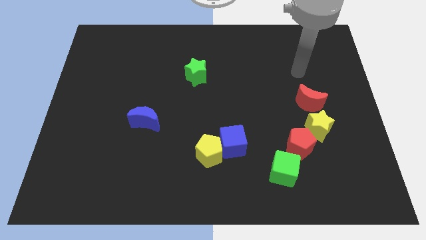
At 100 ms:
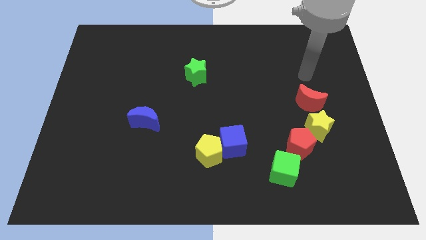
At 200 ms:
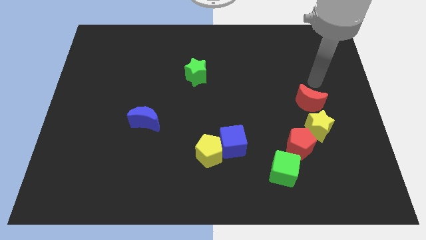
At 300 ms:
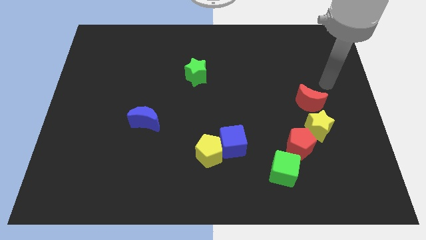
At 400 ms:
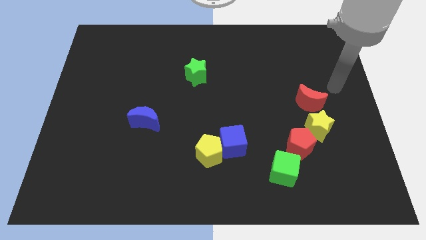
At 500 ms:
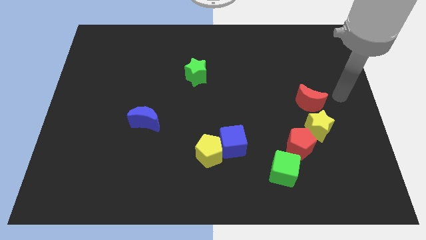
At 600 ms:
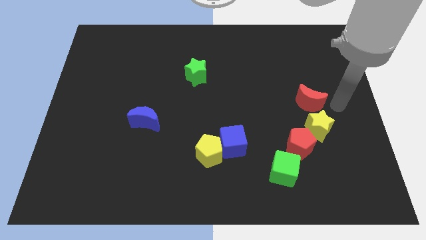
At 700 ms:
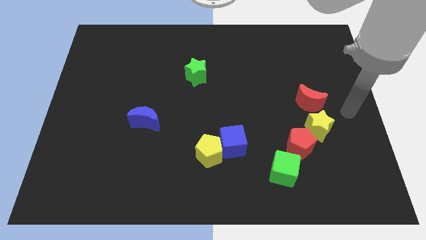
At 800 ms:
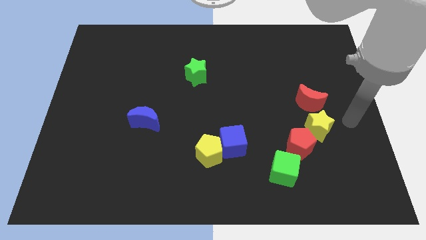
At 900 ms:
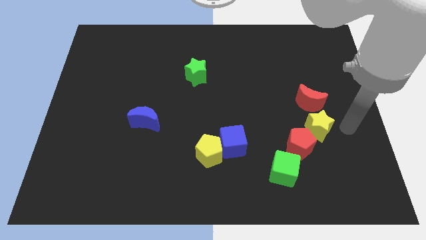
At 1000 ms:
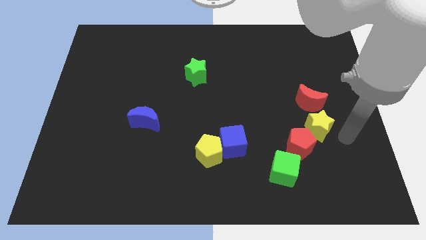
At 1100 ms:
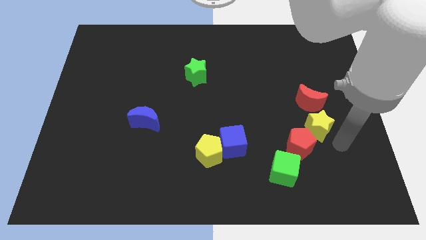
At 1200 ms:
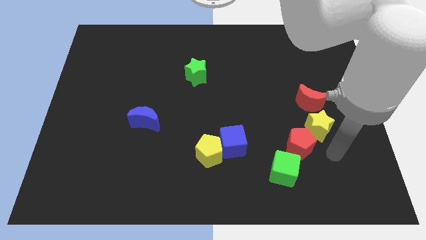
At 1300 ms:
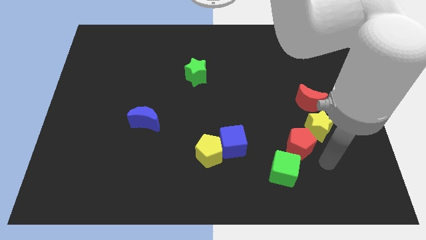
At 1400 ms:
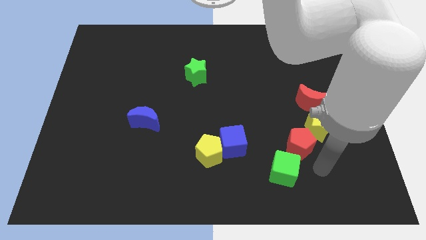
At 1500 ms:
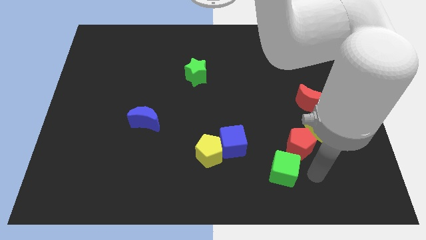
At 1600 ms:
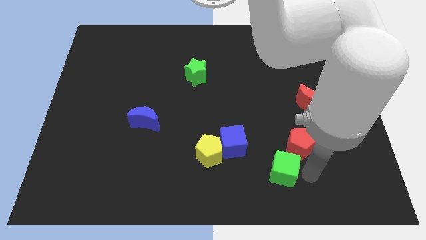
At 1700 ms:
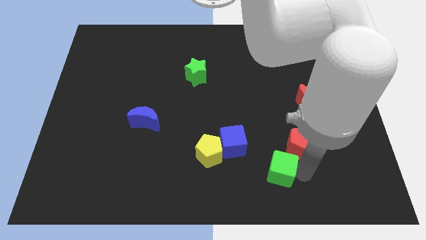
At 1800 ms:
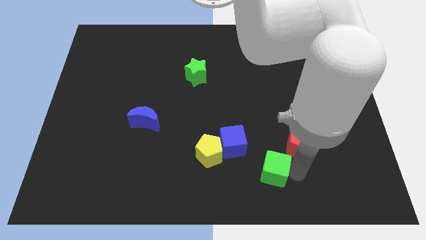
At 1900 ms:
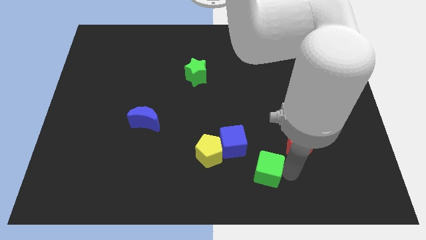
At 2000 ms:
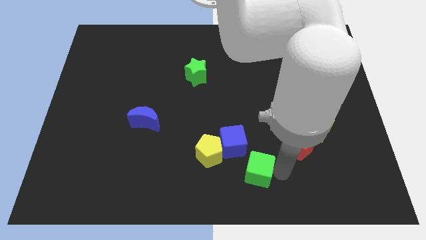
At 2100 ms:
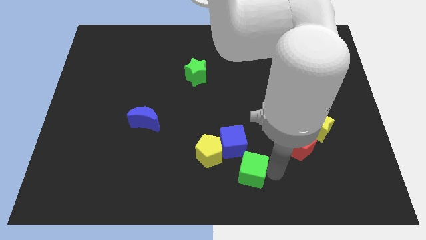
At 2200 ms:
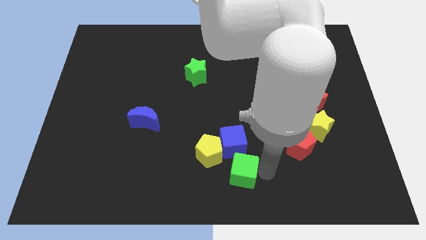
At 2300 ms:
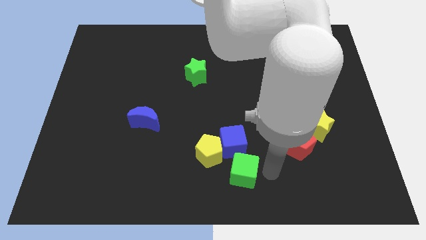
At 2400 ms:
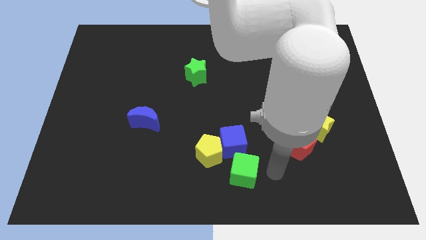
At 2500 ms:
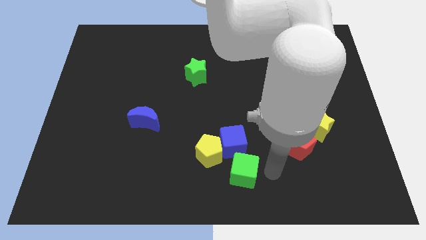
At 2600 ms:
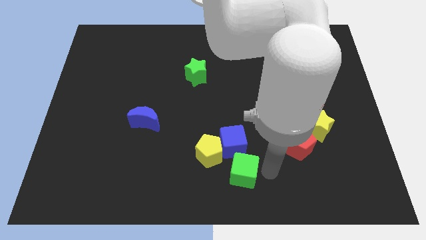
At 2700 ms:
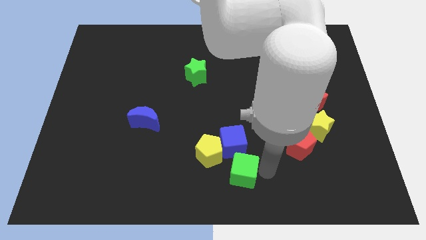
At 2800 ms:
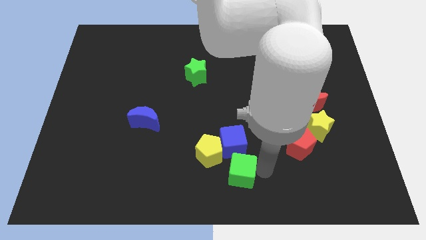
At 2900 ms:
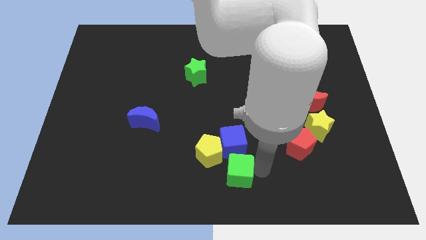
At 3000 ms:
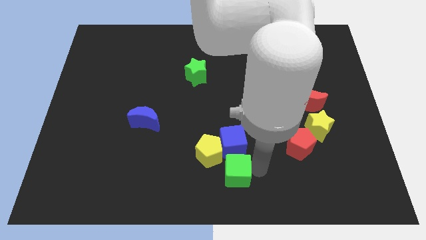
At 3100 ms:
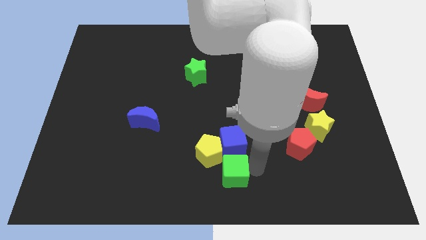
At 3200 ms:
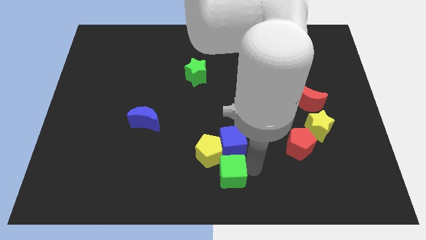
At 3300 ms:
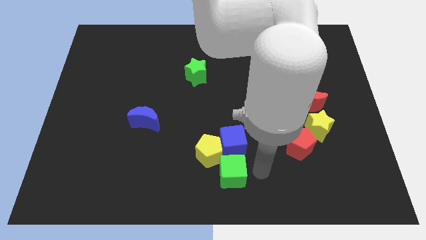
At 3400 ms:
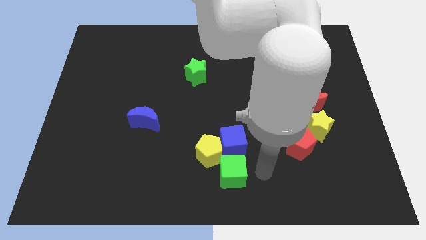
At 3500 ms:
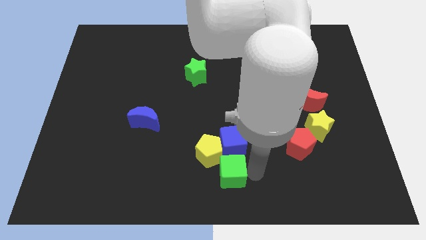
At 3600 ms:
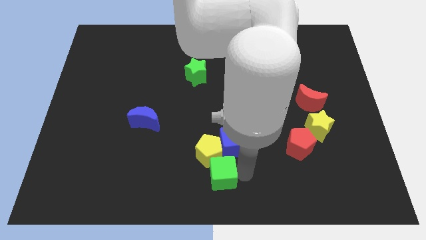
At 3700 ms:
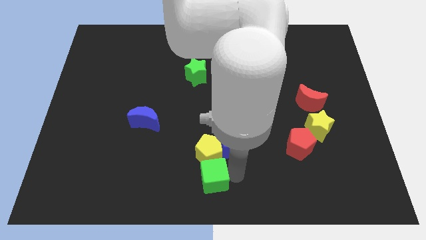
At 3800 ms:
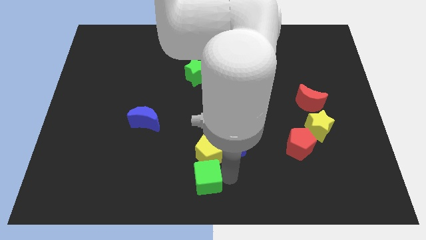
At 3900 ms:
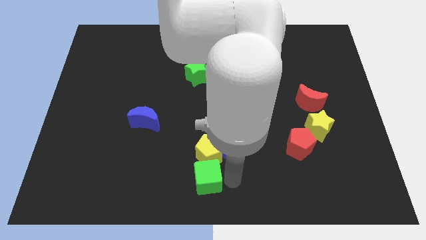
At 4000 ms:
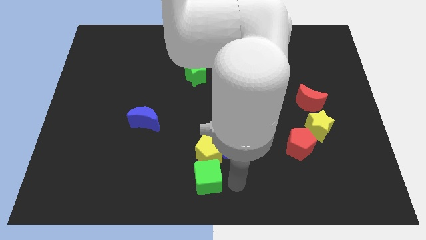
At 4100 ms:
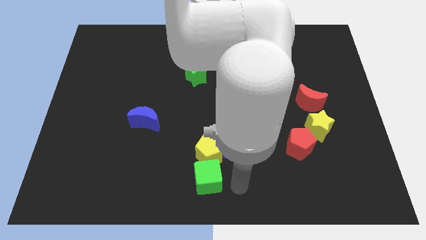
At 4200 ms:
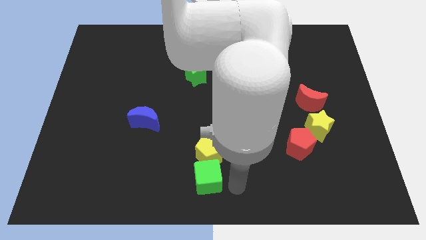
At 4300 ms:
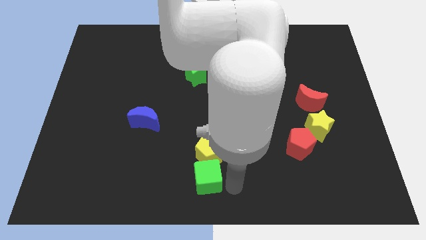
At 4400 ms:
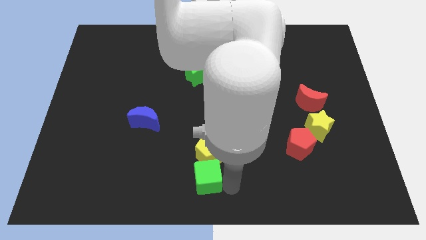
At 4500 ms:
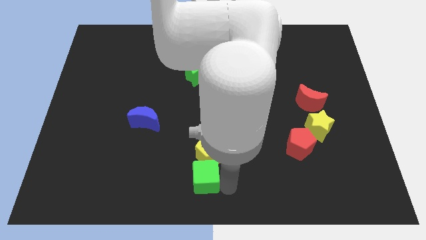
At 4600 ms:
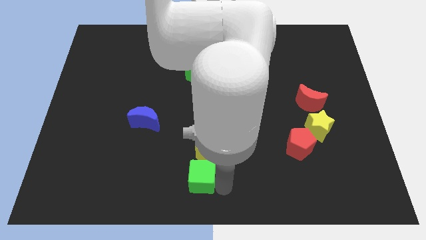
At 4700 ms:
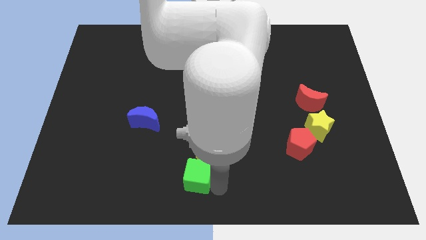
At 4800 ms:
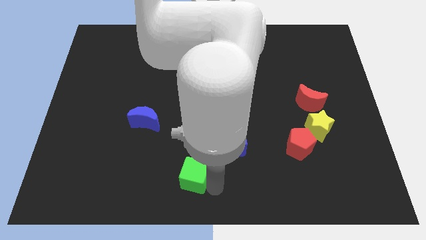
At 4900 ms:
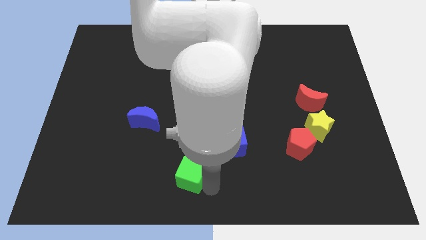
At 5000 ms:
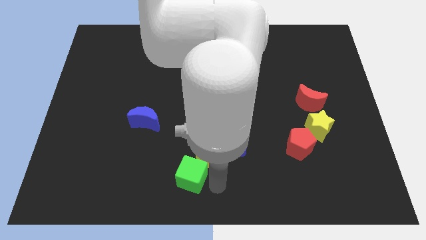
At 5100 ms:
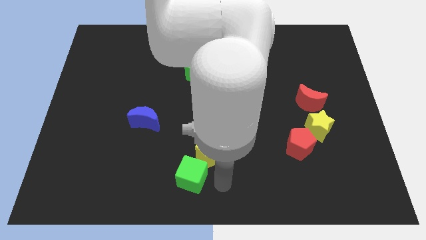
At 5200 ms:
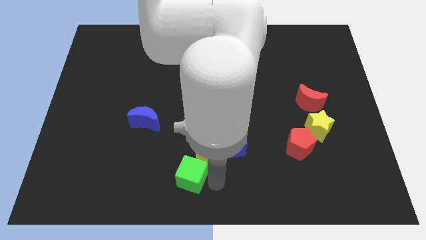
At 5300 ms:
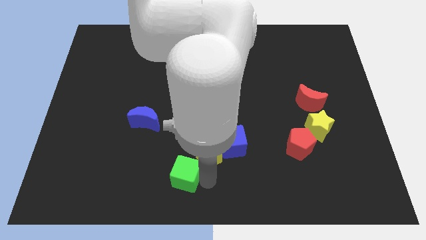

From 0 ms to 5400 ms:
slide the green cube left

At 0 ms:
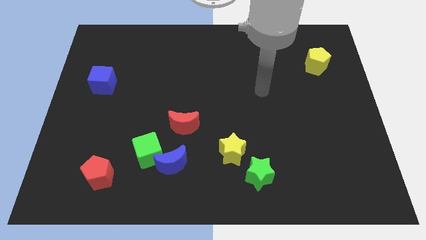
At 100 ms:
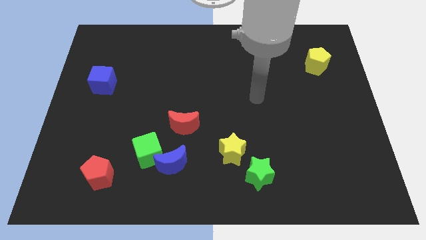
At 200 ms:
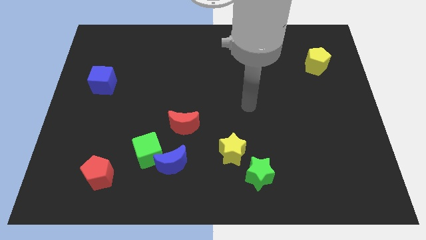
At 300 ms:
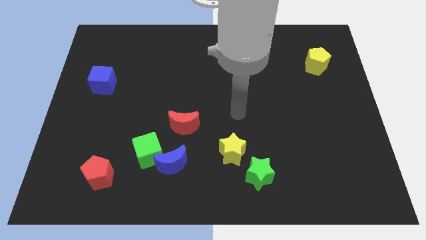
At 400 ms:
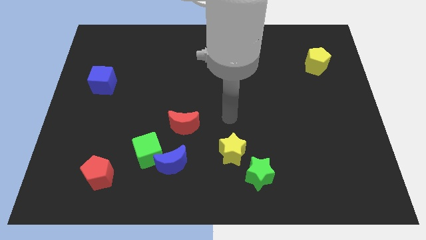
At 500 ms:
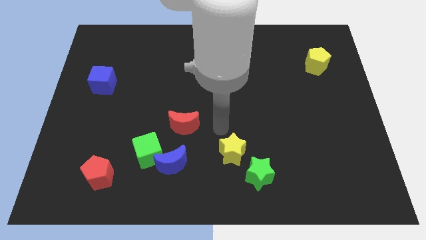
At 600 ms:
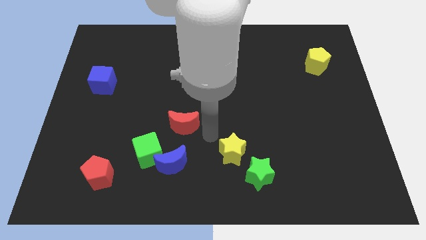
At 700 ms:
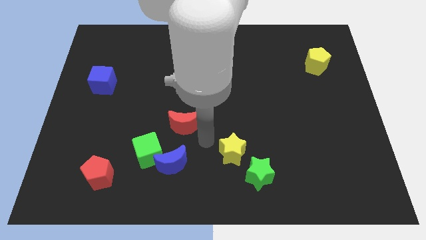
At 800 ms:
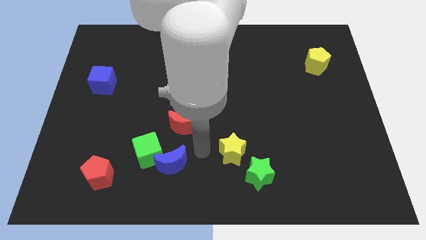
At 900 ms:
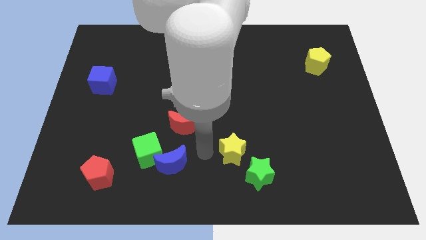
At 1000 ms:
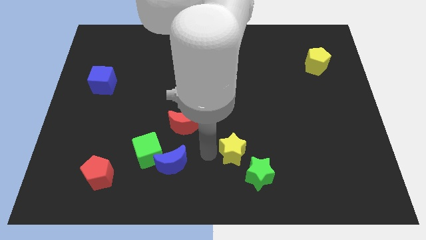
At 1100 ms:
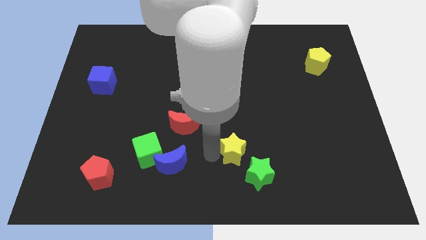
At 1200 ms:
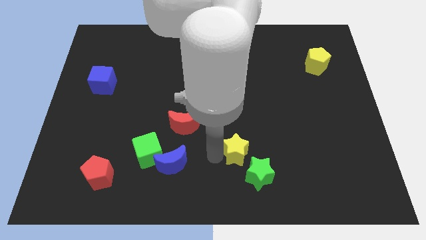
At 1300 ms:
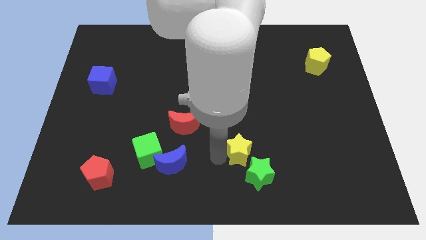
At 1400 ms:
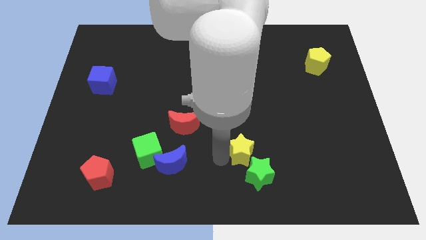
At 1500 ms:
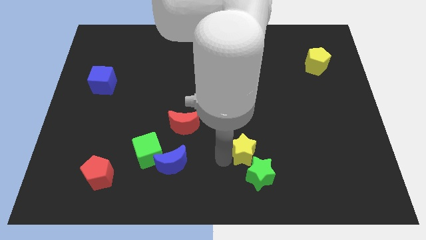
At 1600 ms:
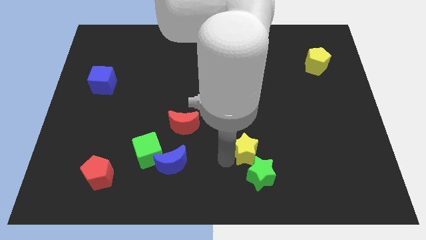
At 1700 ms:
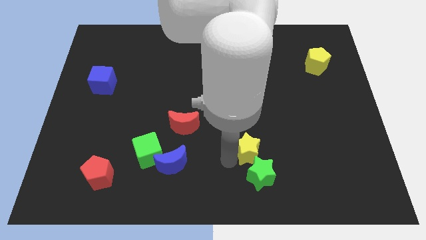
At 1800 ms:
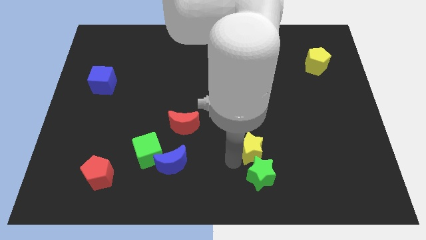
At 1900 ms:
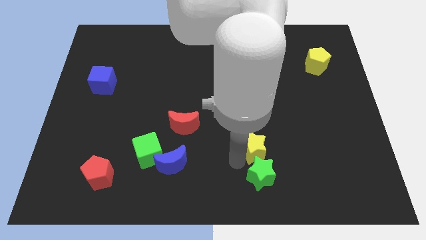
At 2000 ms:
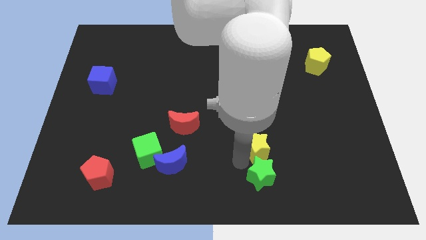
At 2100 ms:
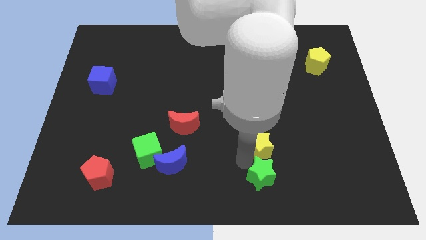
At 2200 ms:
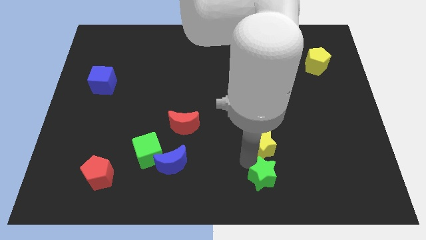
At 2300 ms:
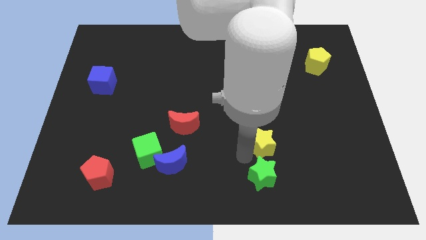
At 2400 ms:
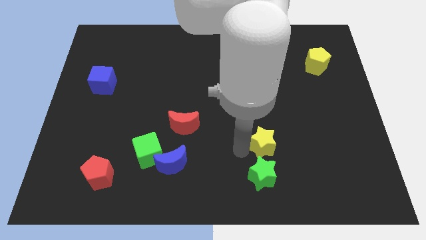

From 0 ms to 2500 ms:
move the yellow star to the right a little

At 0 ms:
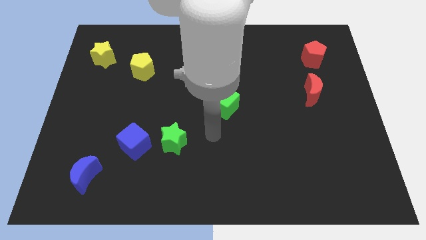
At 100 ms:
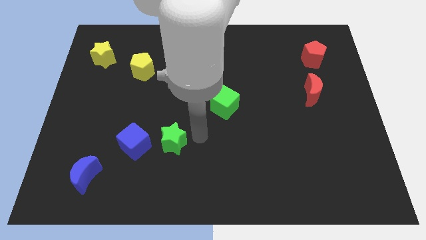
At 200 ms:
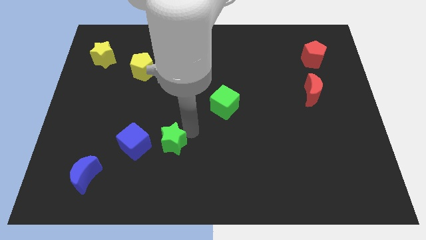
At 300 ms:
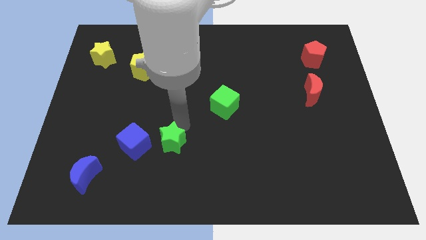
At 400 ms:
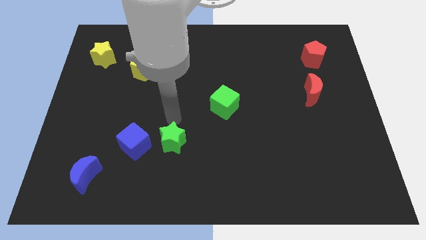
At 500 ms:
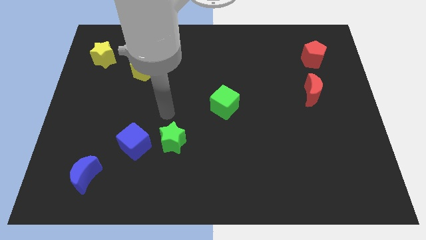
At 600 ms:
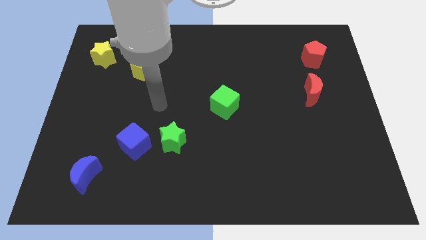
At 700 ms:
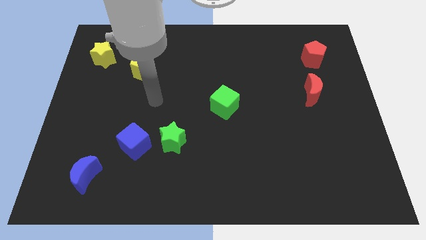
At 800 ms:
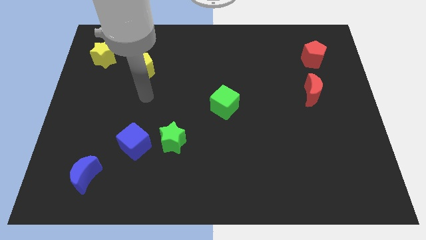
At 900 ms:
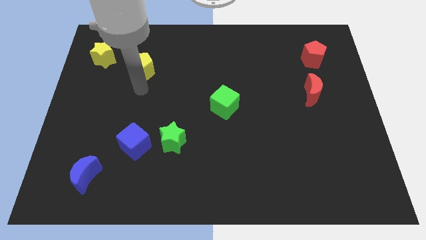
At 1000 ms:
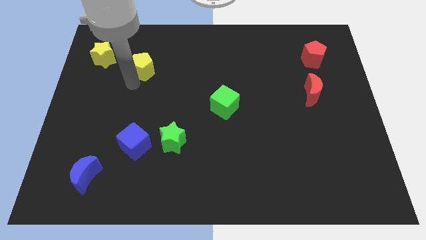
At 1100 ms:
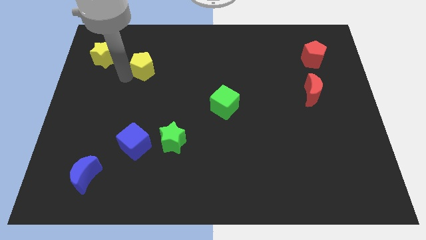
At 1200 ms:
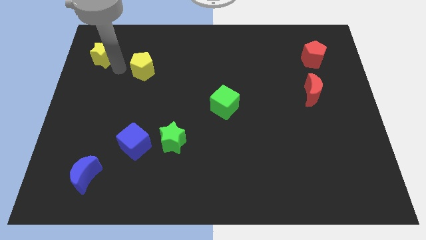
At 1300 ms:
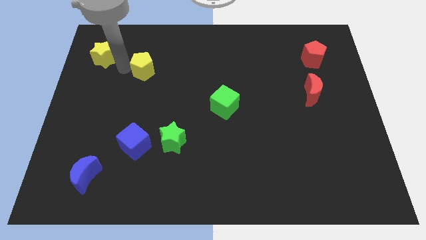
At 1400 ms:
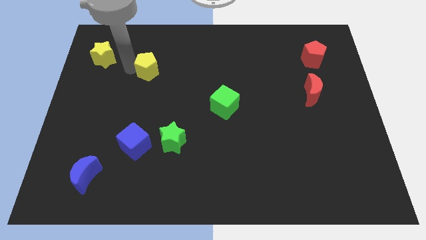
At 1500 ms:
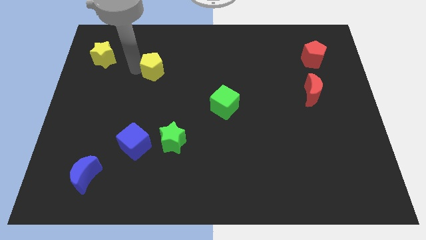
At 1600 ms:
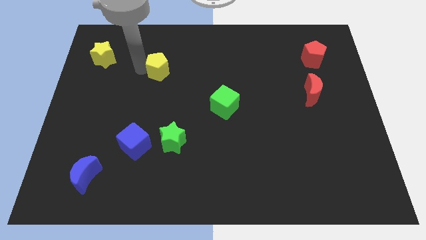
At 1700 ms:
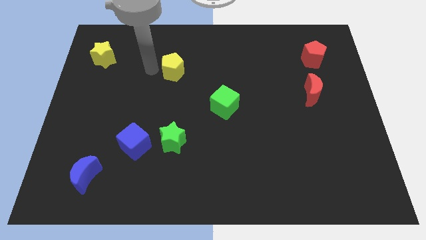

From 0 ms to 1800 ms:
push the yellow pentagon right a little
